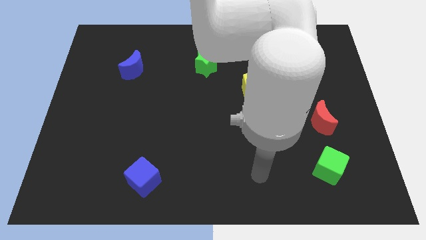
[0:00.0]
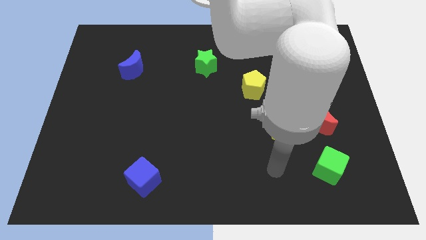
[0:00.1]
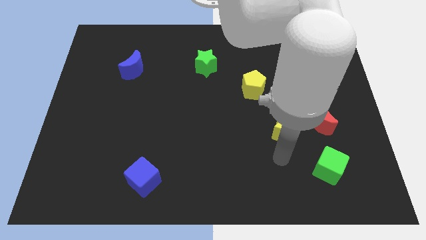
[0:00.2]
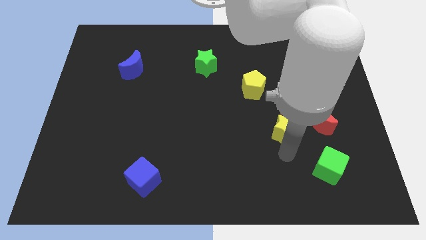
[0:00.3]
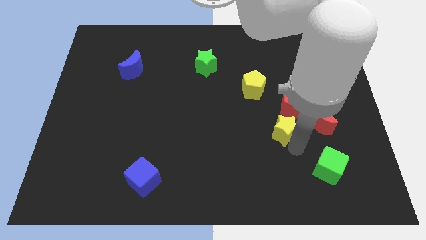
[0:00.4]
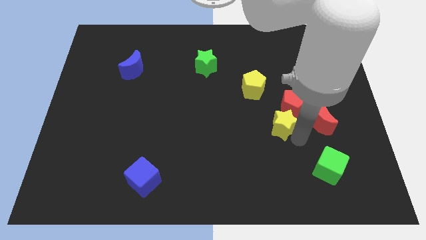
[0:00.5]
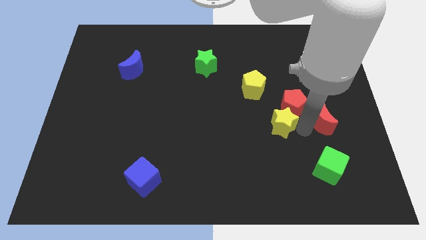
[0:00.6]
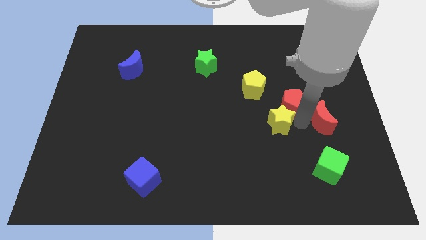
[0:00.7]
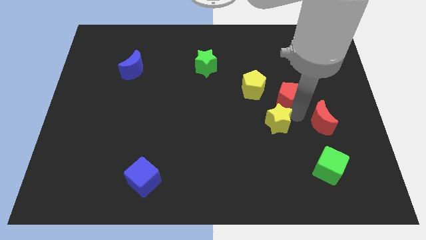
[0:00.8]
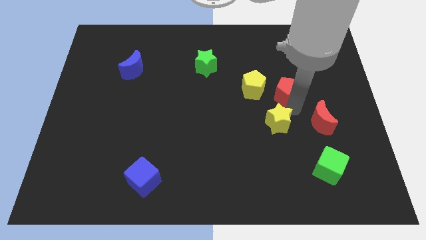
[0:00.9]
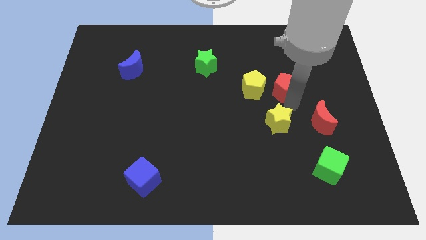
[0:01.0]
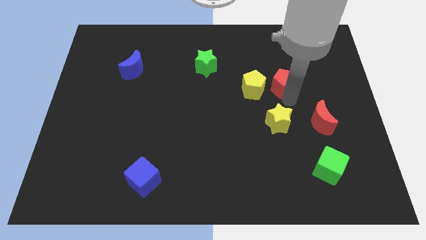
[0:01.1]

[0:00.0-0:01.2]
separate the red pentagon from the red moon and yellow star

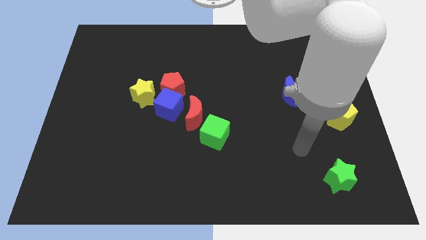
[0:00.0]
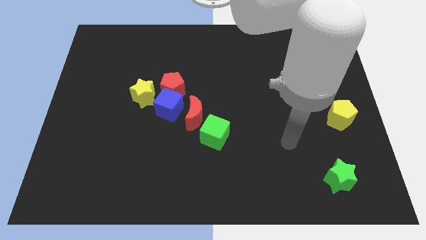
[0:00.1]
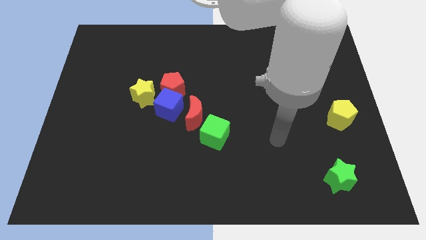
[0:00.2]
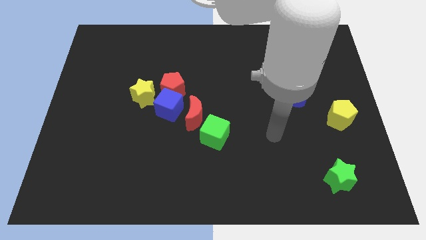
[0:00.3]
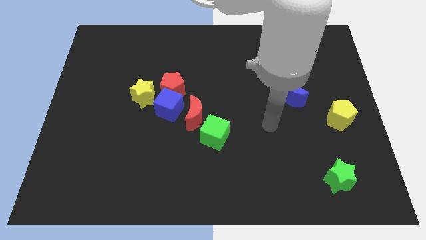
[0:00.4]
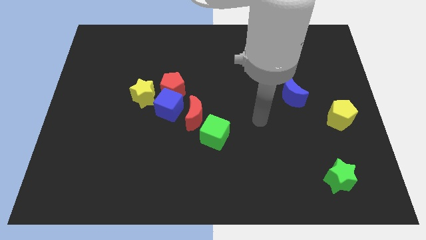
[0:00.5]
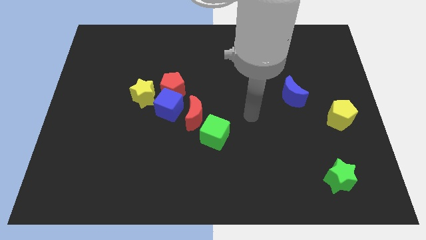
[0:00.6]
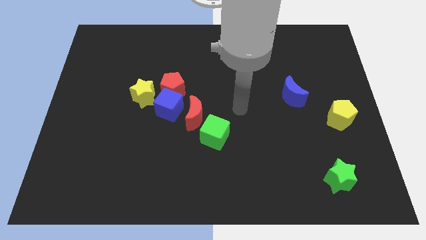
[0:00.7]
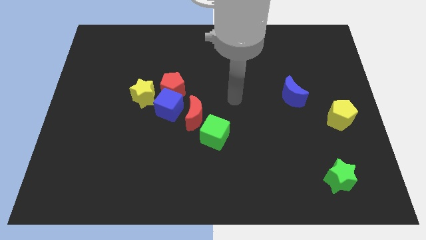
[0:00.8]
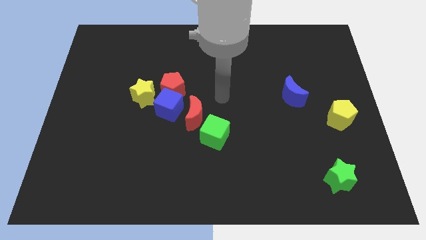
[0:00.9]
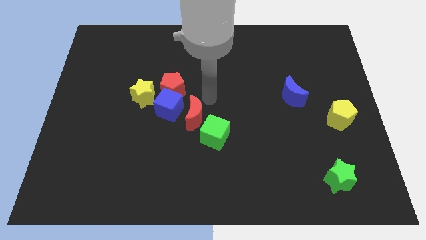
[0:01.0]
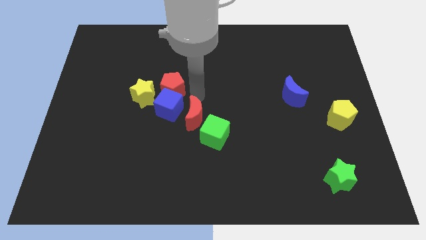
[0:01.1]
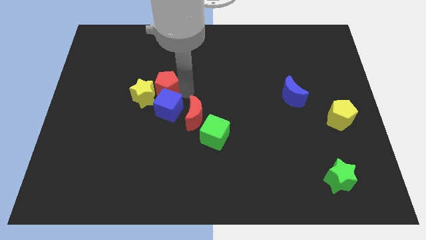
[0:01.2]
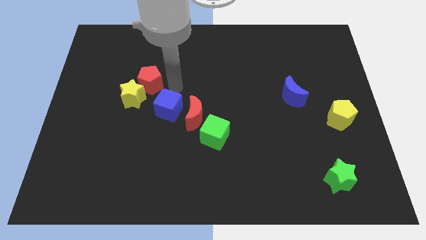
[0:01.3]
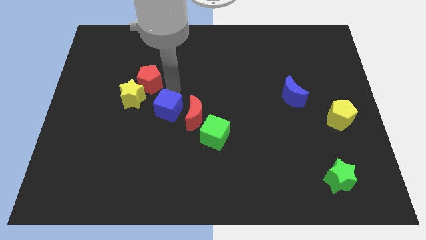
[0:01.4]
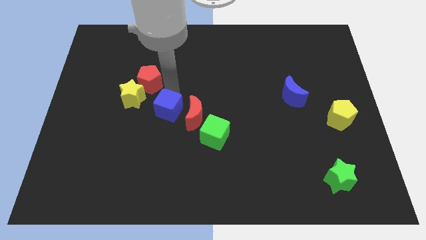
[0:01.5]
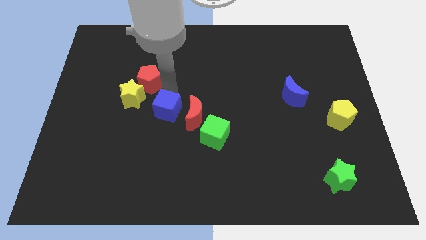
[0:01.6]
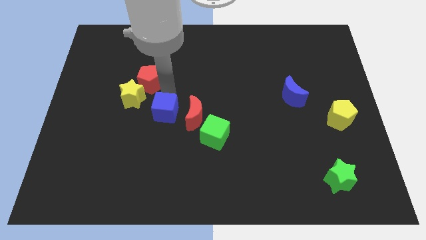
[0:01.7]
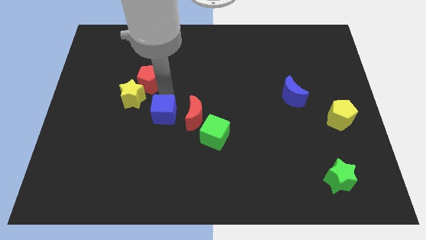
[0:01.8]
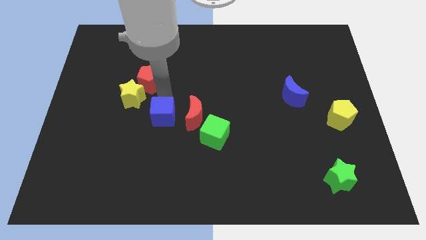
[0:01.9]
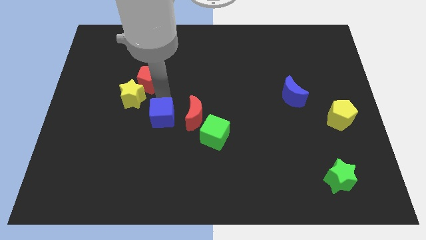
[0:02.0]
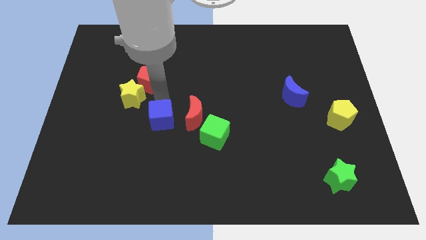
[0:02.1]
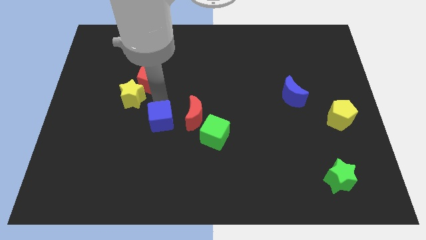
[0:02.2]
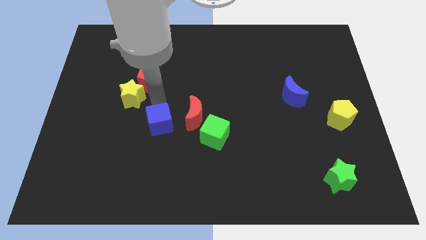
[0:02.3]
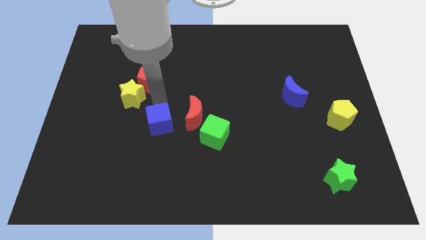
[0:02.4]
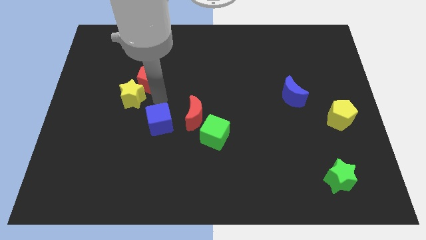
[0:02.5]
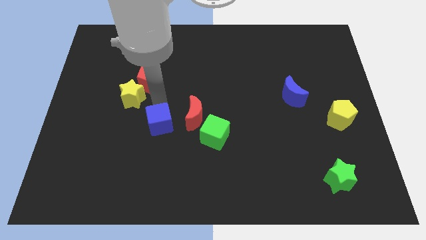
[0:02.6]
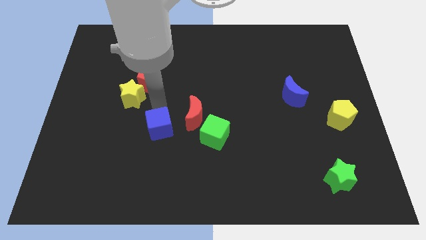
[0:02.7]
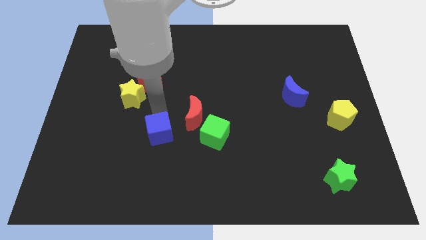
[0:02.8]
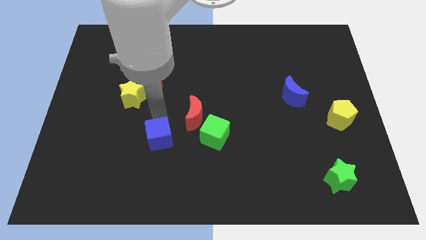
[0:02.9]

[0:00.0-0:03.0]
separate the blue cube from the red pentagon, red moon, and yellow star

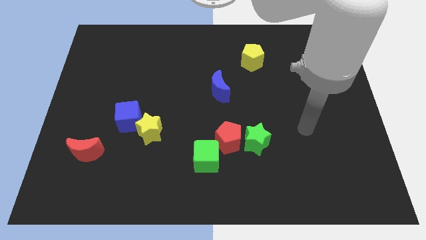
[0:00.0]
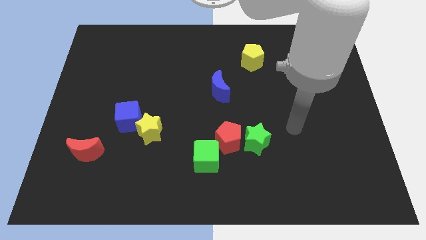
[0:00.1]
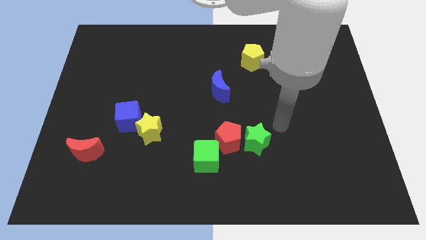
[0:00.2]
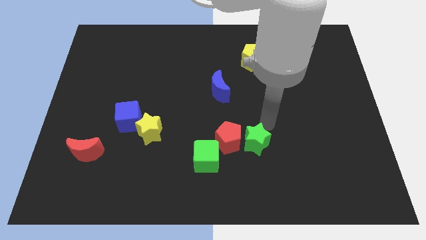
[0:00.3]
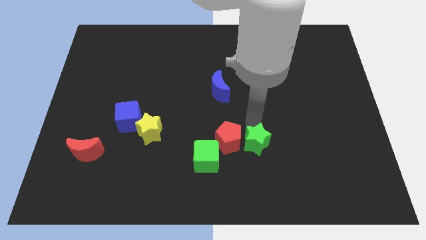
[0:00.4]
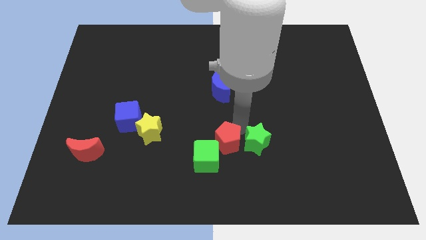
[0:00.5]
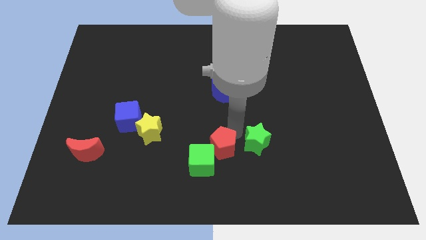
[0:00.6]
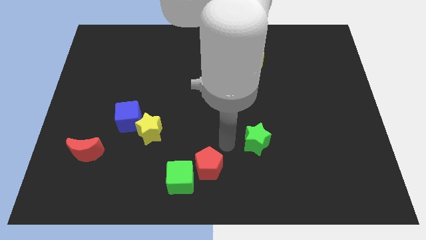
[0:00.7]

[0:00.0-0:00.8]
move the green star away from the red pentagon

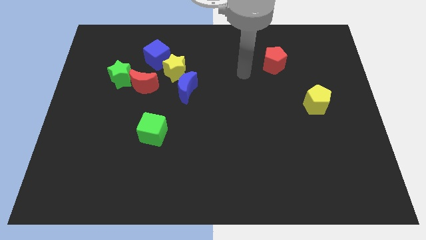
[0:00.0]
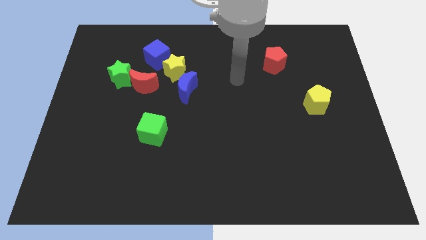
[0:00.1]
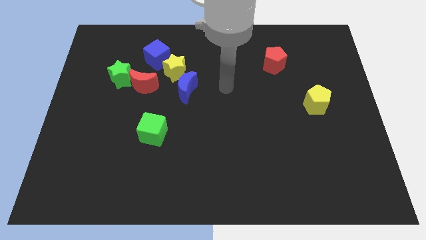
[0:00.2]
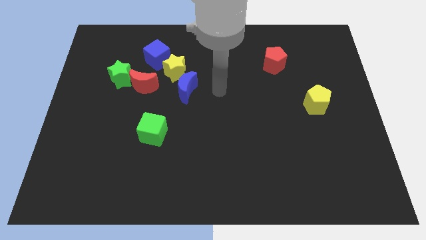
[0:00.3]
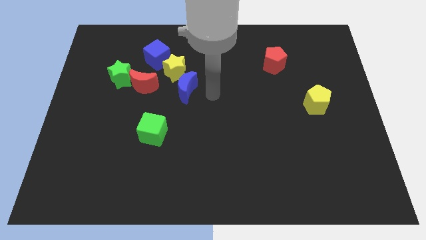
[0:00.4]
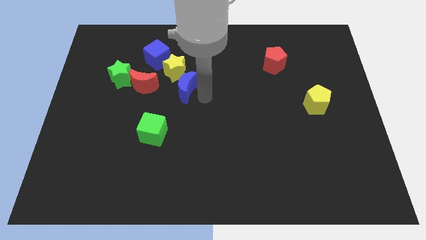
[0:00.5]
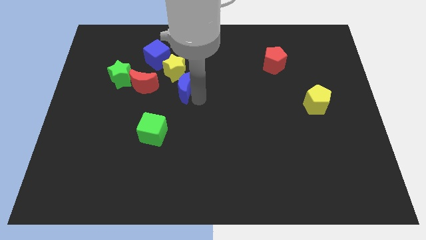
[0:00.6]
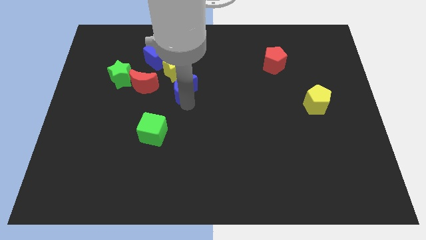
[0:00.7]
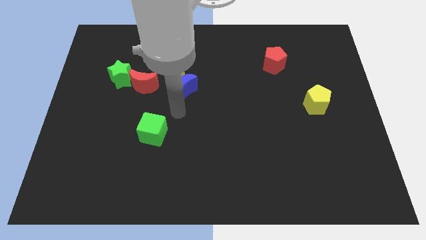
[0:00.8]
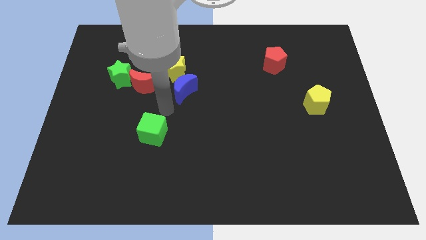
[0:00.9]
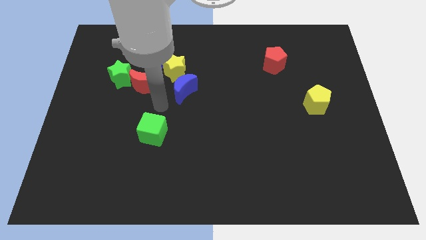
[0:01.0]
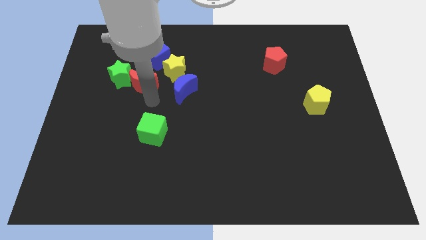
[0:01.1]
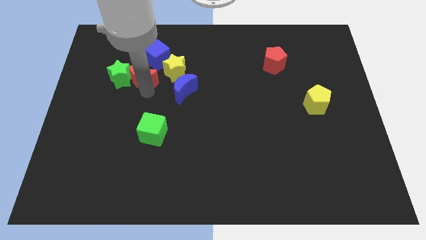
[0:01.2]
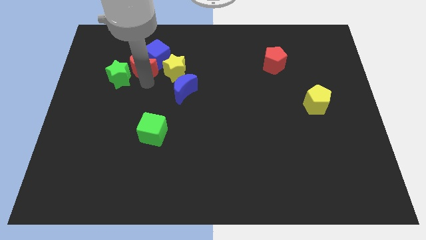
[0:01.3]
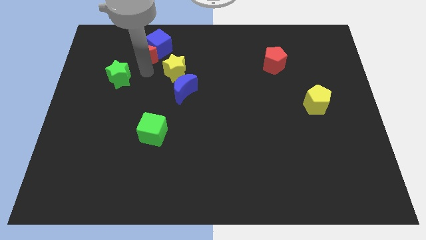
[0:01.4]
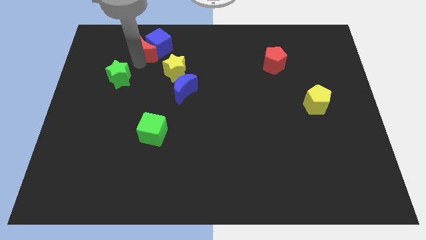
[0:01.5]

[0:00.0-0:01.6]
separate the green star from the red moon

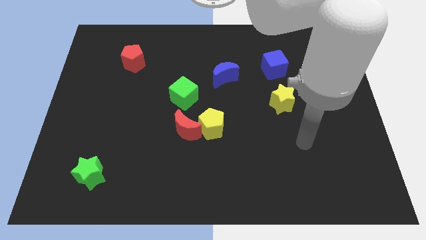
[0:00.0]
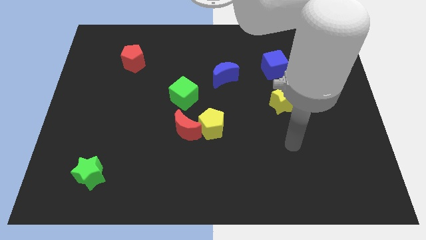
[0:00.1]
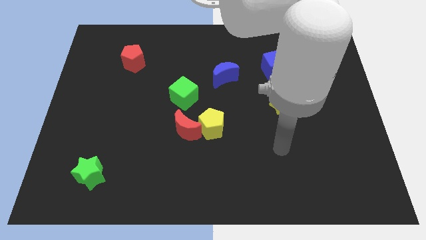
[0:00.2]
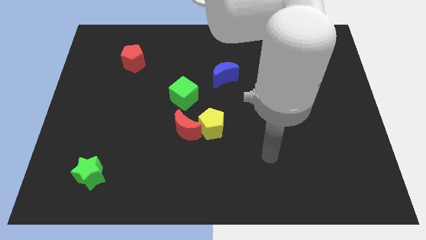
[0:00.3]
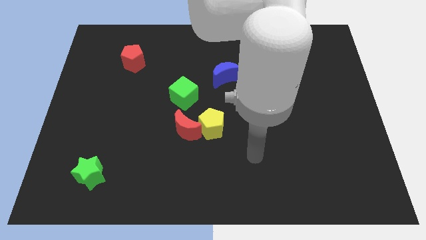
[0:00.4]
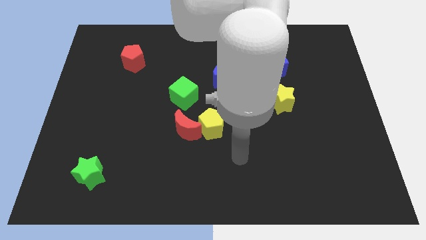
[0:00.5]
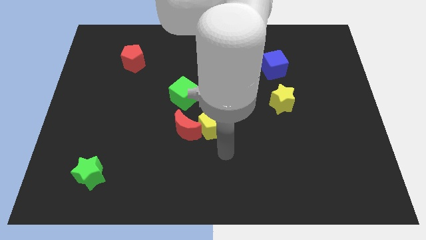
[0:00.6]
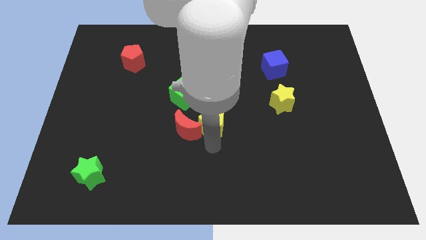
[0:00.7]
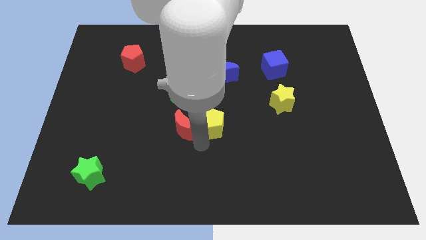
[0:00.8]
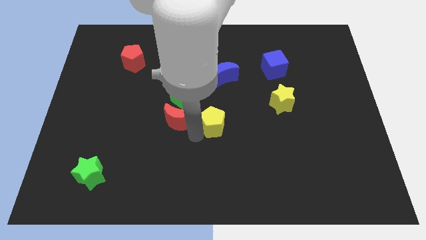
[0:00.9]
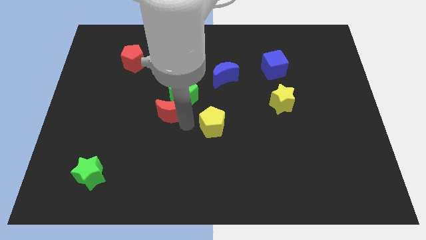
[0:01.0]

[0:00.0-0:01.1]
move the yellow pentagon away from the red moon

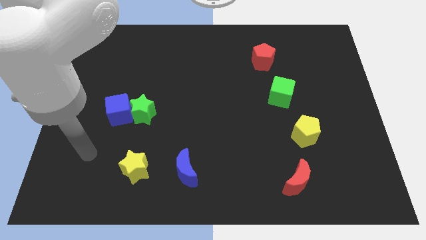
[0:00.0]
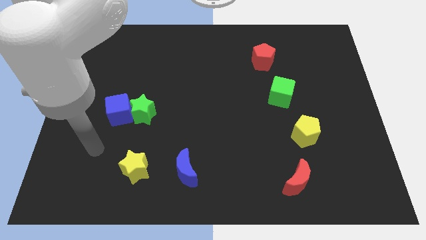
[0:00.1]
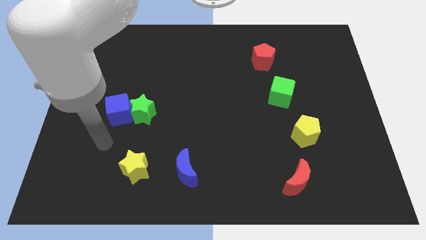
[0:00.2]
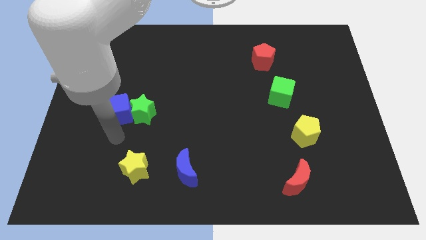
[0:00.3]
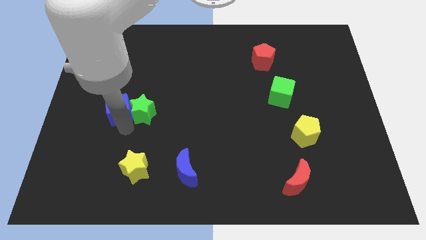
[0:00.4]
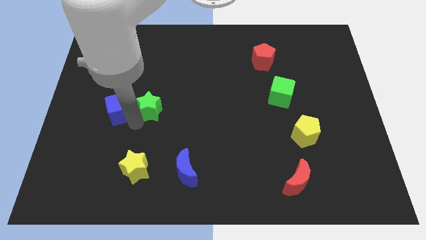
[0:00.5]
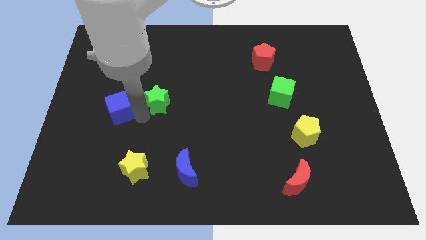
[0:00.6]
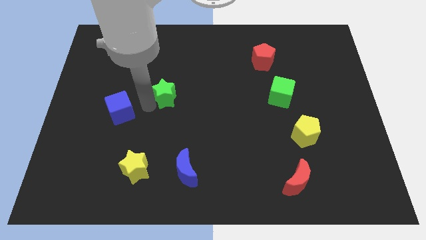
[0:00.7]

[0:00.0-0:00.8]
separate the blue cube from the green star

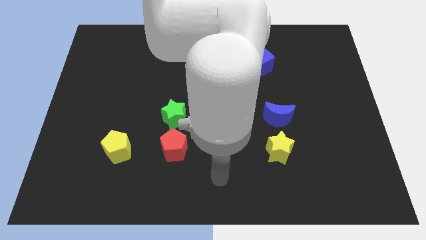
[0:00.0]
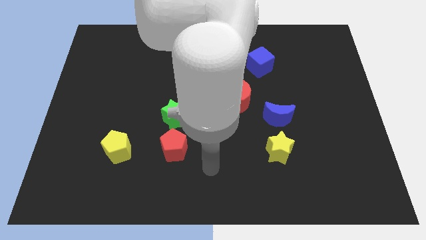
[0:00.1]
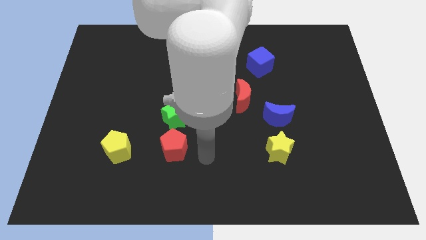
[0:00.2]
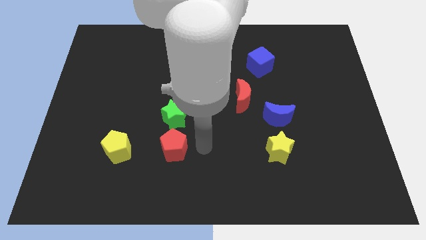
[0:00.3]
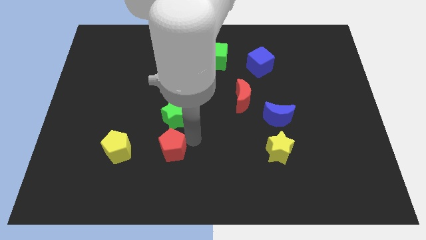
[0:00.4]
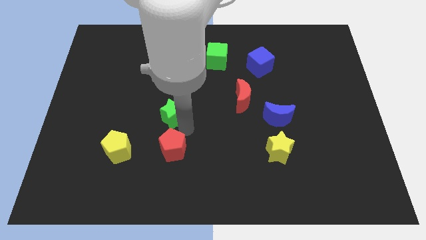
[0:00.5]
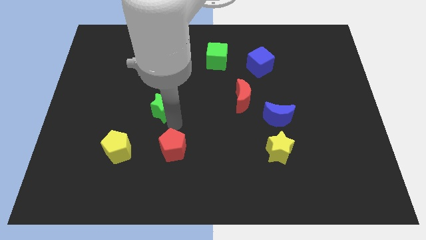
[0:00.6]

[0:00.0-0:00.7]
move the red pentagon away from the green star

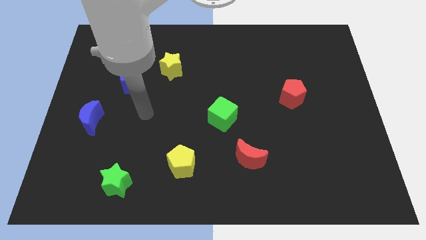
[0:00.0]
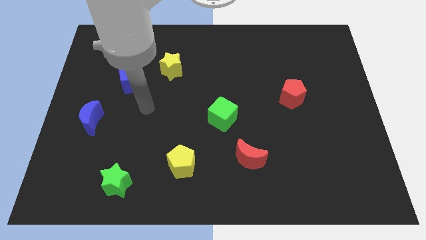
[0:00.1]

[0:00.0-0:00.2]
separate the blue cube from the yellow star
